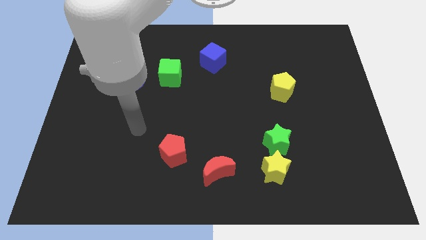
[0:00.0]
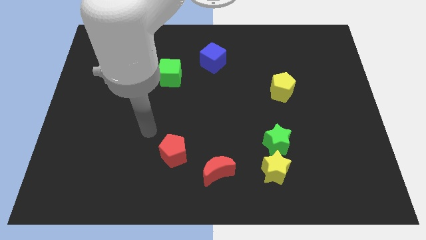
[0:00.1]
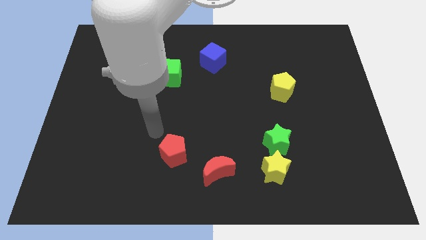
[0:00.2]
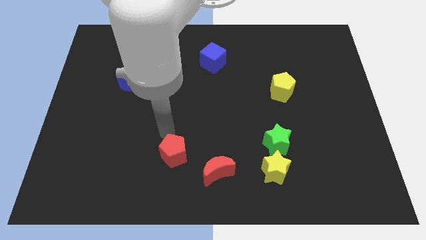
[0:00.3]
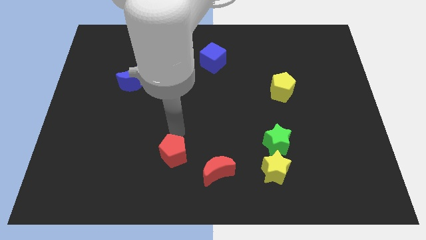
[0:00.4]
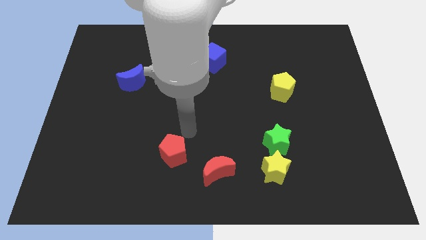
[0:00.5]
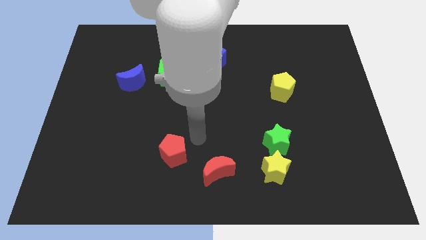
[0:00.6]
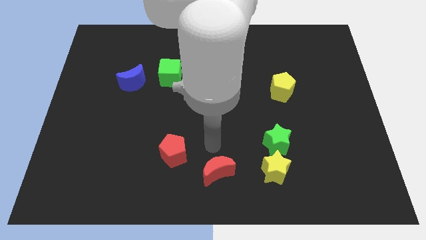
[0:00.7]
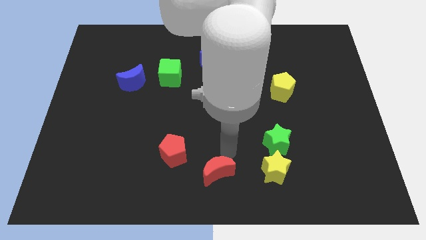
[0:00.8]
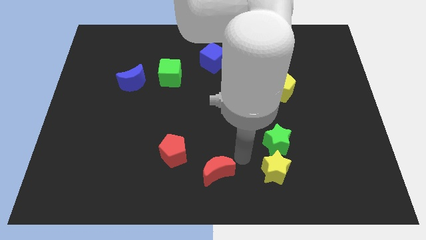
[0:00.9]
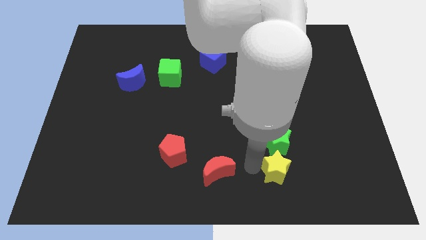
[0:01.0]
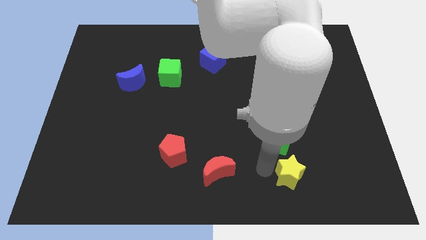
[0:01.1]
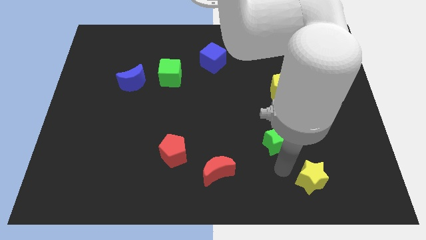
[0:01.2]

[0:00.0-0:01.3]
move the green star away from the yellow star

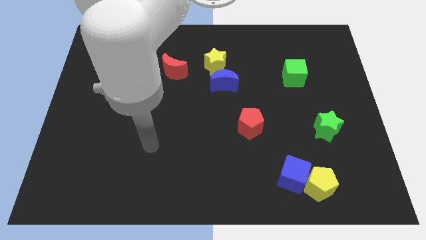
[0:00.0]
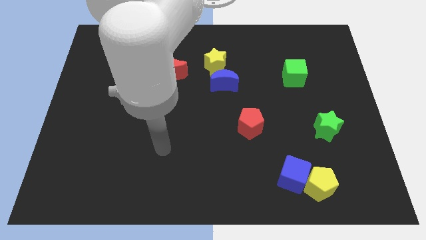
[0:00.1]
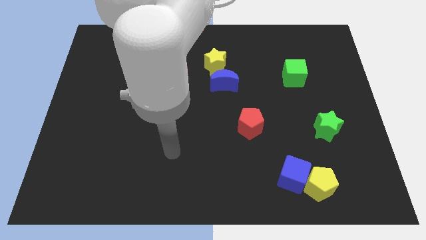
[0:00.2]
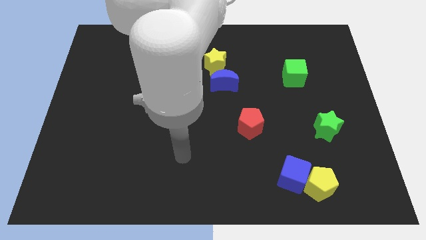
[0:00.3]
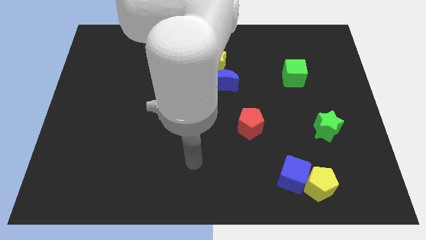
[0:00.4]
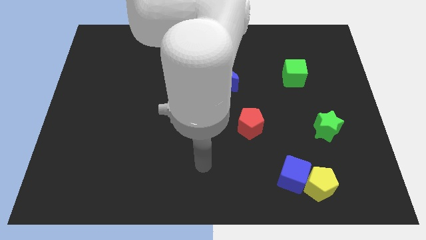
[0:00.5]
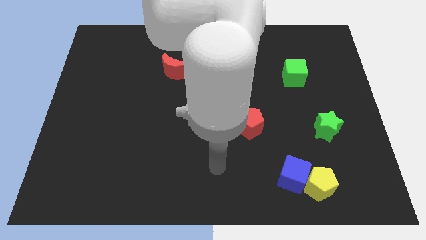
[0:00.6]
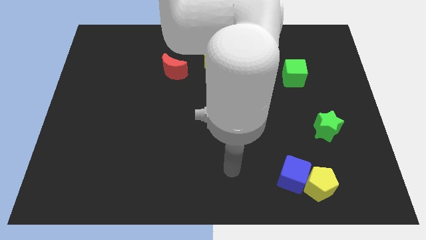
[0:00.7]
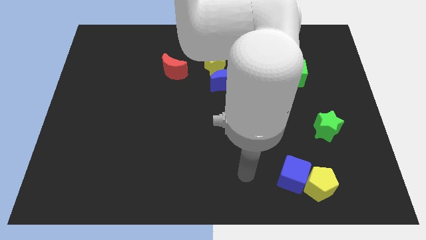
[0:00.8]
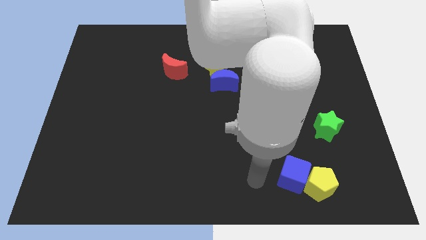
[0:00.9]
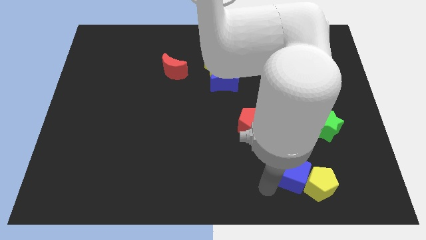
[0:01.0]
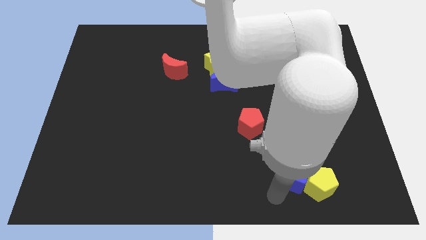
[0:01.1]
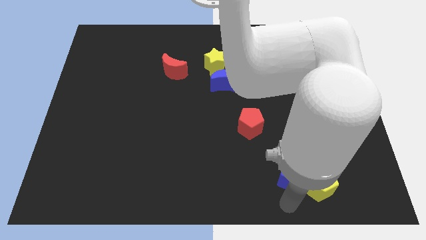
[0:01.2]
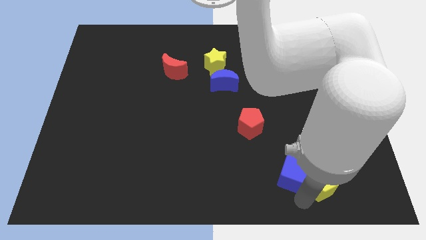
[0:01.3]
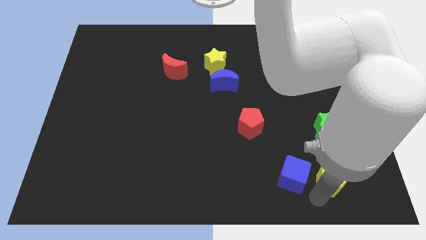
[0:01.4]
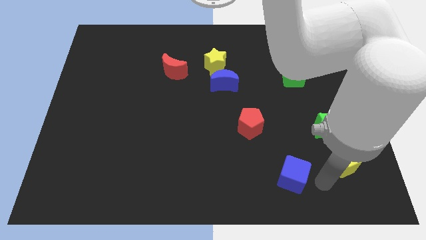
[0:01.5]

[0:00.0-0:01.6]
separate the blue cube from the yellow pentagon

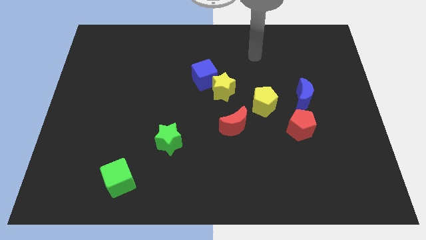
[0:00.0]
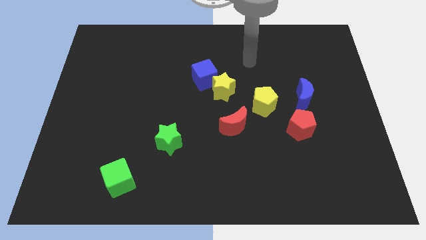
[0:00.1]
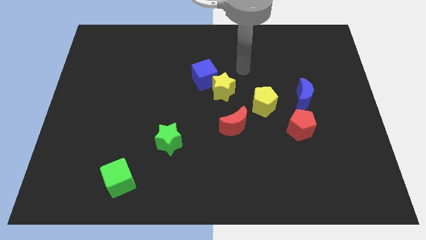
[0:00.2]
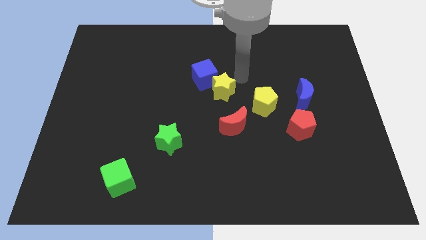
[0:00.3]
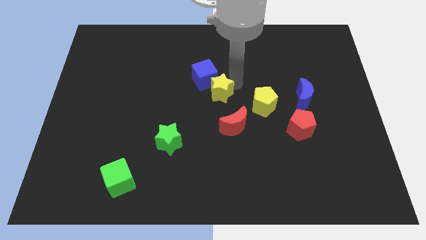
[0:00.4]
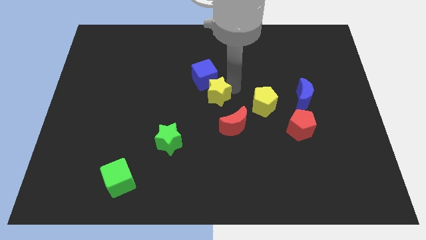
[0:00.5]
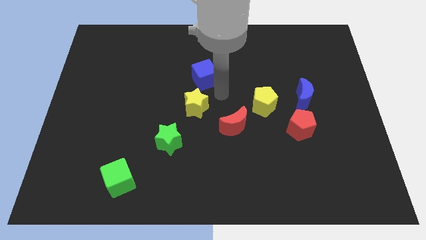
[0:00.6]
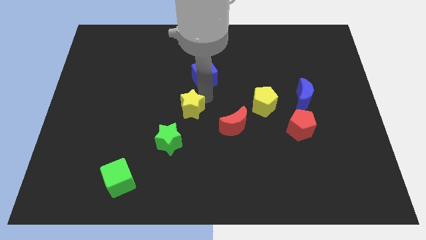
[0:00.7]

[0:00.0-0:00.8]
separate the blue cube from the yellow star

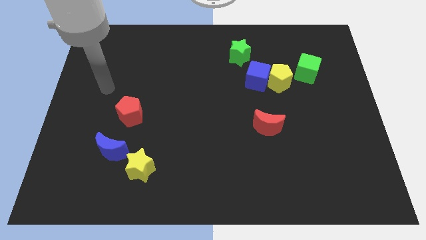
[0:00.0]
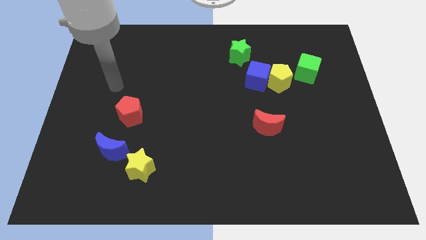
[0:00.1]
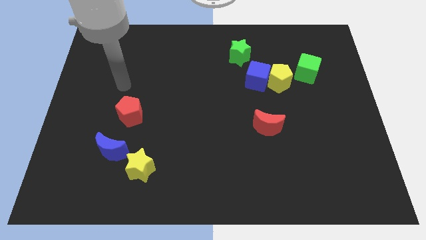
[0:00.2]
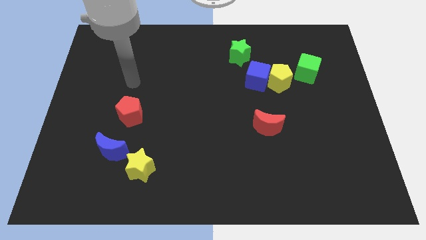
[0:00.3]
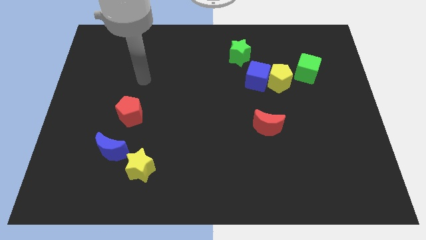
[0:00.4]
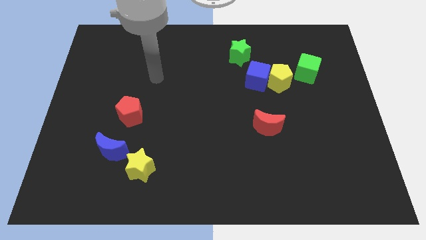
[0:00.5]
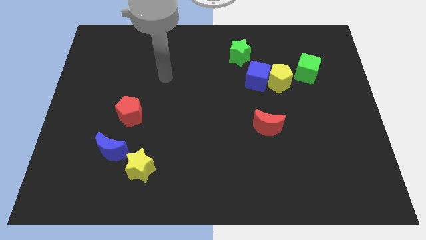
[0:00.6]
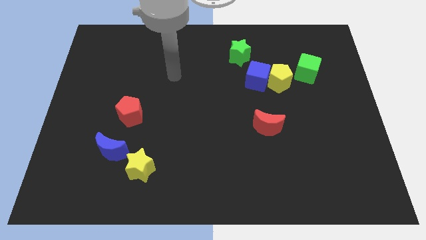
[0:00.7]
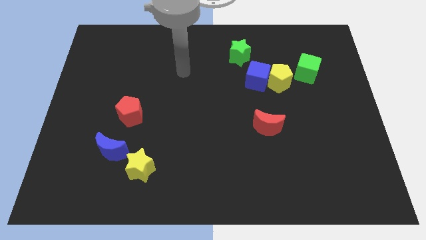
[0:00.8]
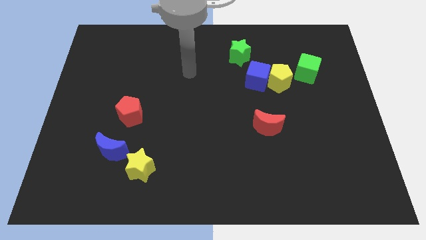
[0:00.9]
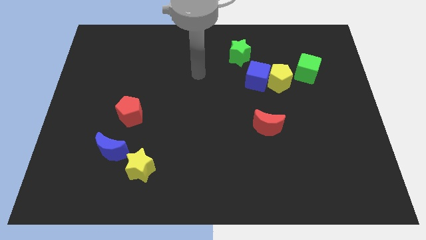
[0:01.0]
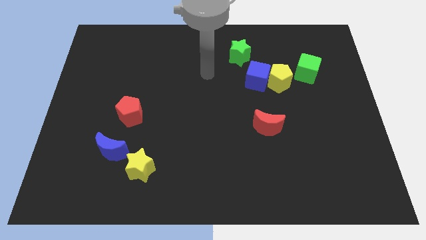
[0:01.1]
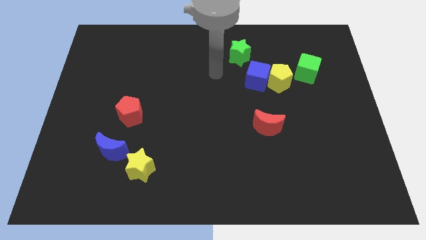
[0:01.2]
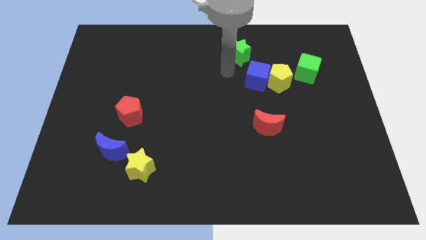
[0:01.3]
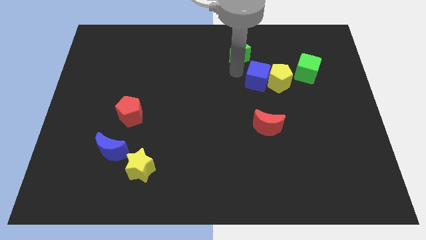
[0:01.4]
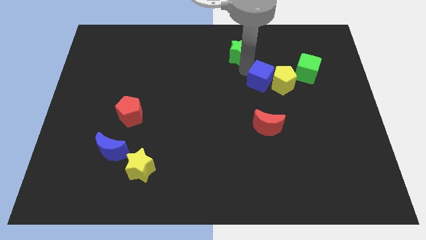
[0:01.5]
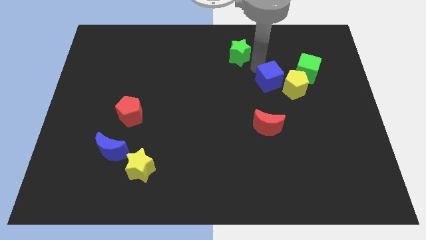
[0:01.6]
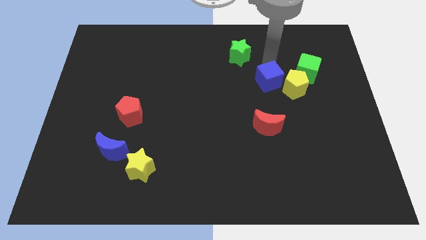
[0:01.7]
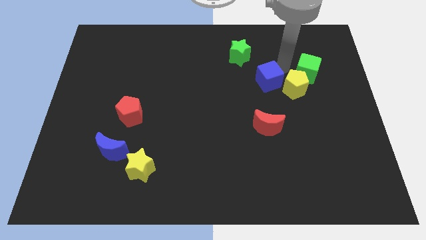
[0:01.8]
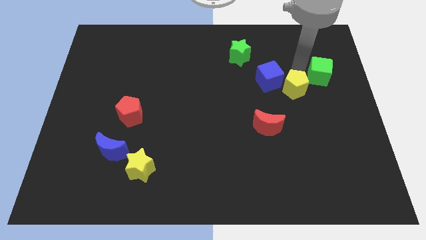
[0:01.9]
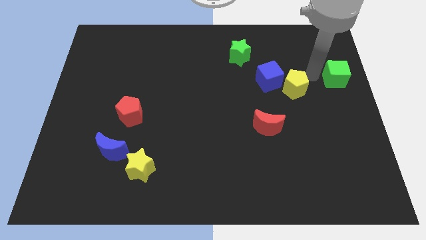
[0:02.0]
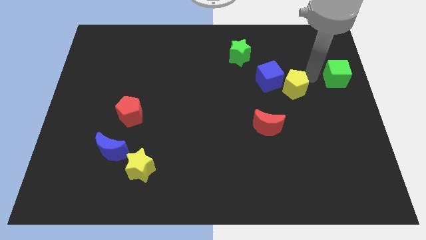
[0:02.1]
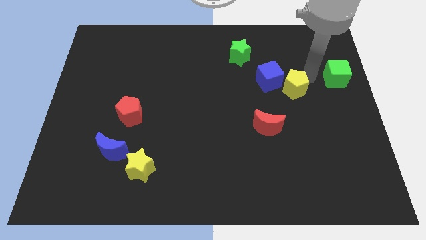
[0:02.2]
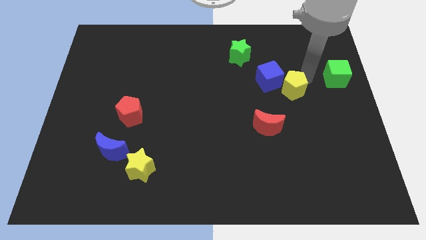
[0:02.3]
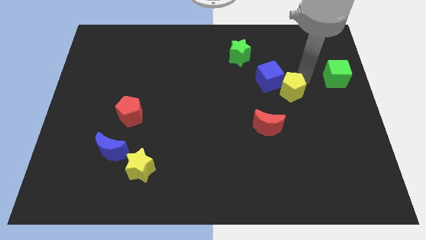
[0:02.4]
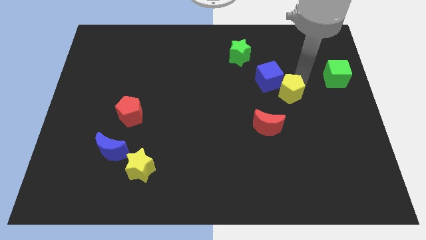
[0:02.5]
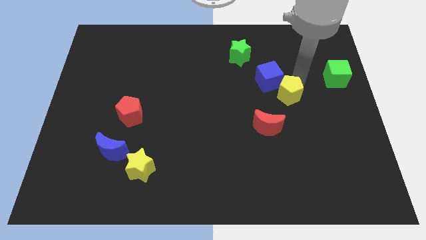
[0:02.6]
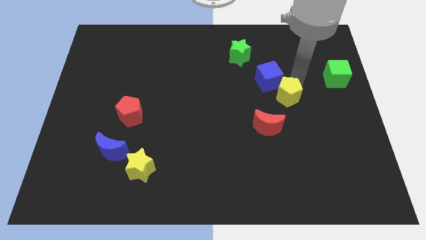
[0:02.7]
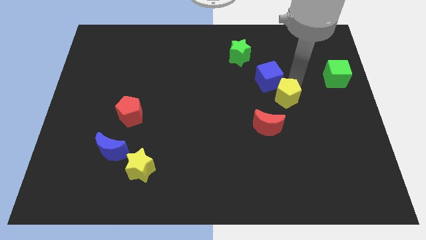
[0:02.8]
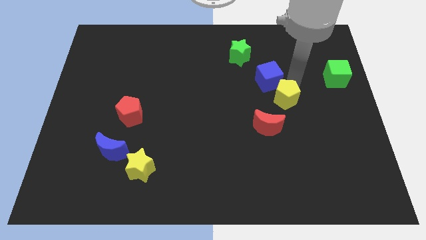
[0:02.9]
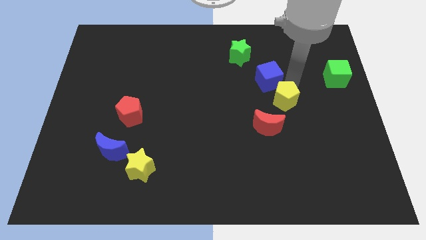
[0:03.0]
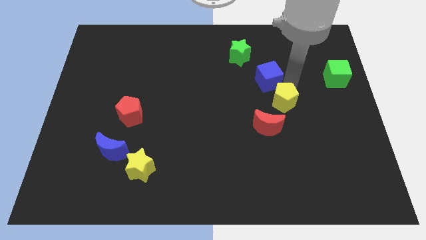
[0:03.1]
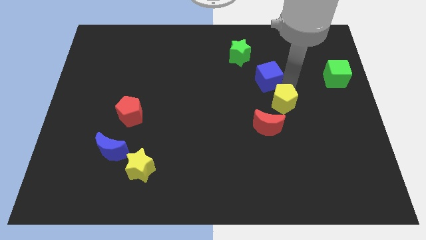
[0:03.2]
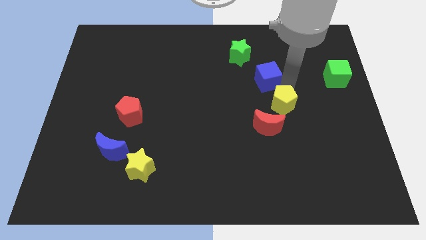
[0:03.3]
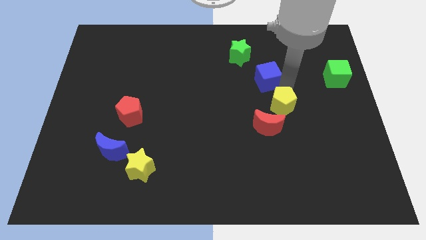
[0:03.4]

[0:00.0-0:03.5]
move the yellow pentagon away from the blue cube and green cube

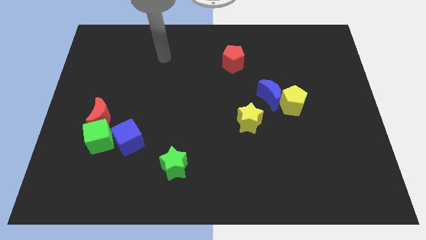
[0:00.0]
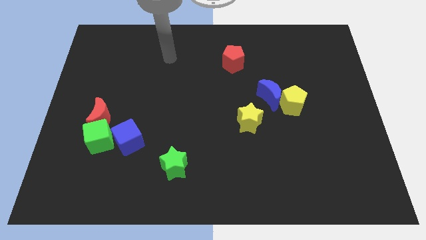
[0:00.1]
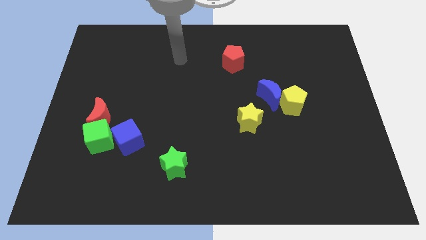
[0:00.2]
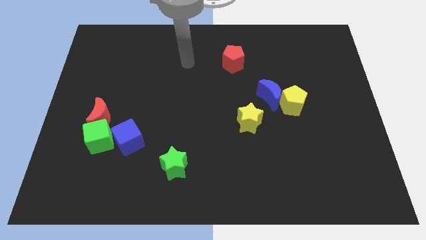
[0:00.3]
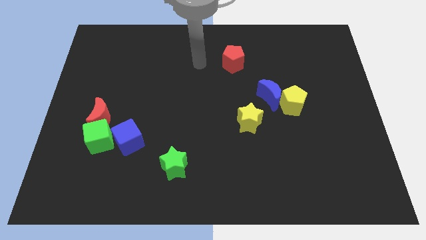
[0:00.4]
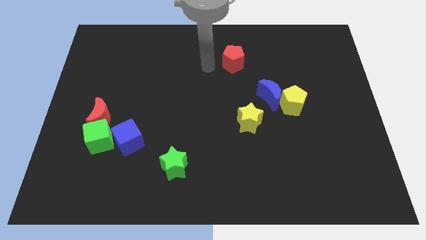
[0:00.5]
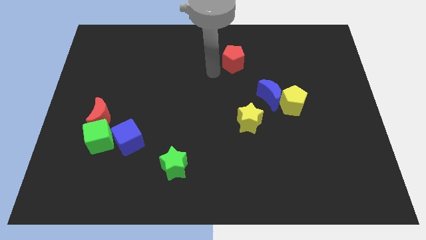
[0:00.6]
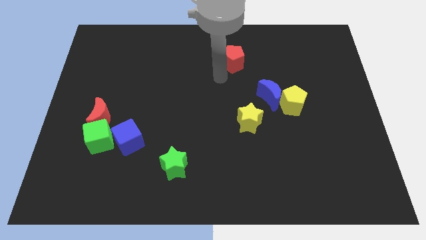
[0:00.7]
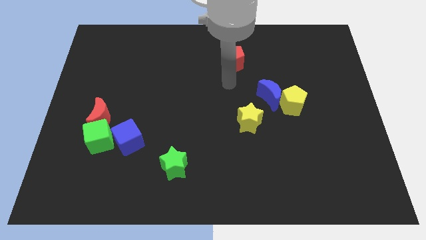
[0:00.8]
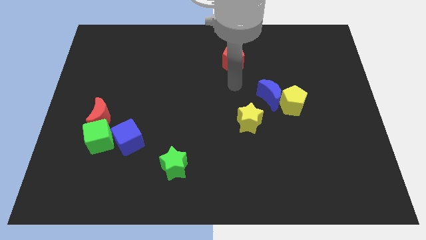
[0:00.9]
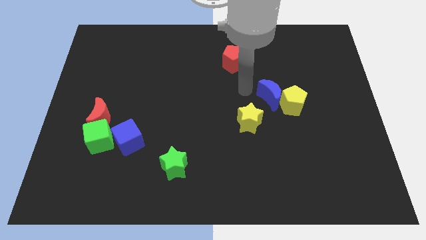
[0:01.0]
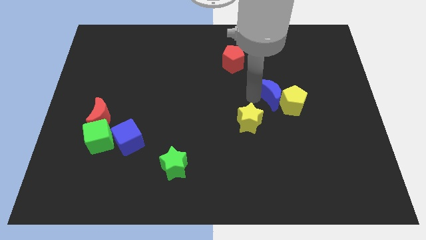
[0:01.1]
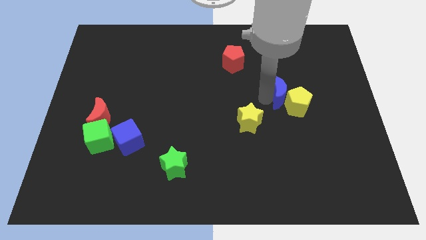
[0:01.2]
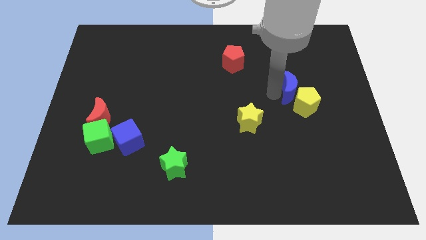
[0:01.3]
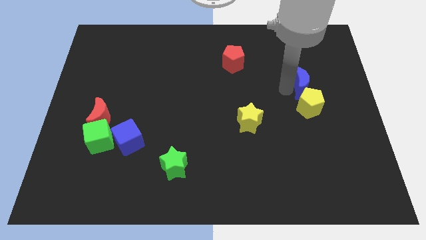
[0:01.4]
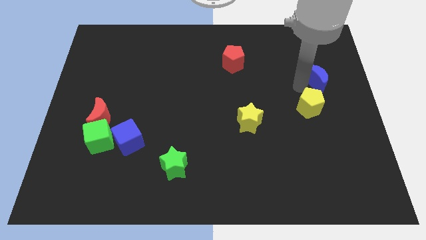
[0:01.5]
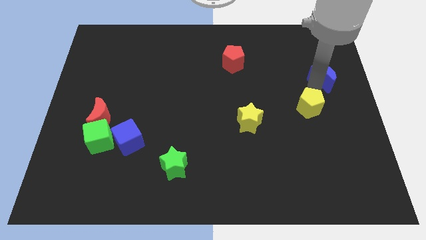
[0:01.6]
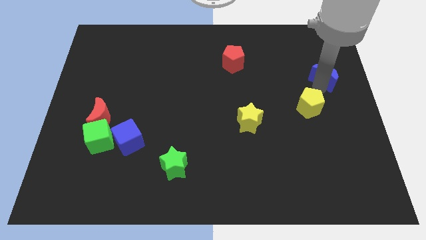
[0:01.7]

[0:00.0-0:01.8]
separate the yellow pentagon from the blue moon

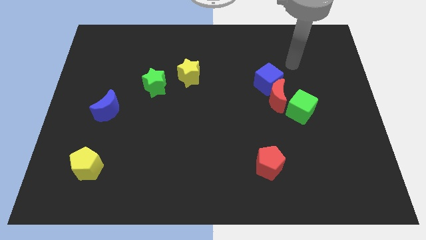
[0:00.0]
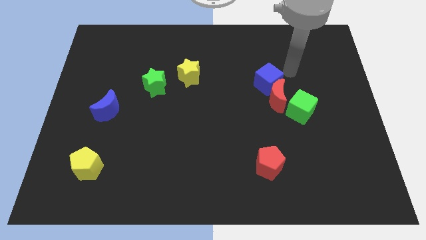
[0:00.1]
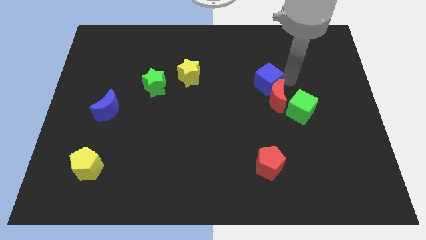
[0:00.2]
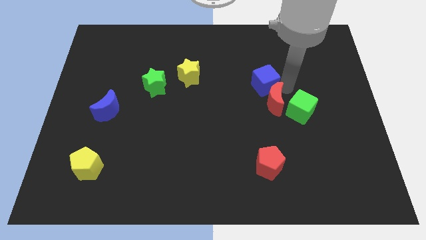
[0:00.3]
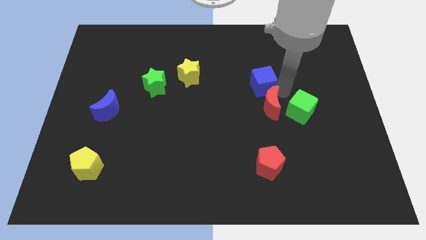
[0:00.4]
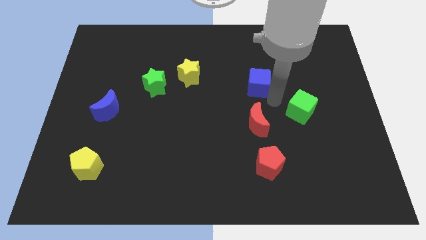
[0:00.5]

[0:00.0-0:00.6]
separate the blue cube from the red moon
